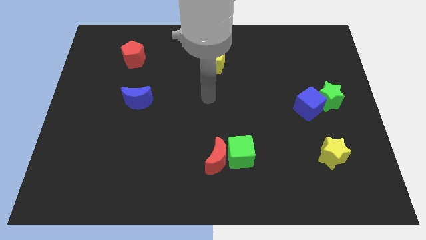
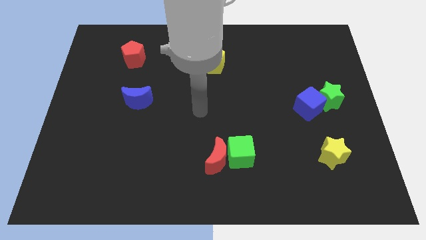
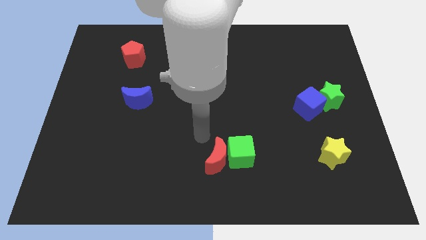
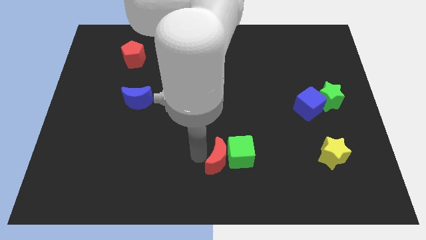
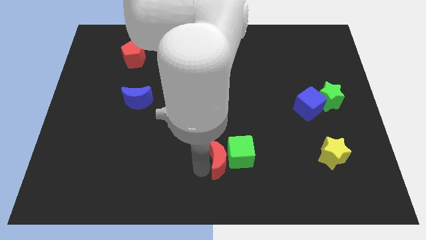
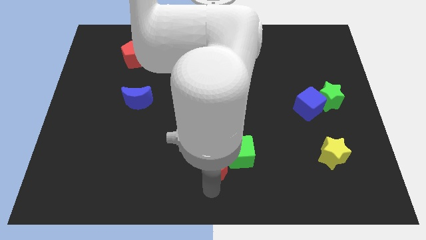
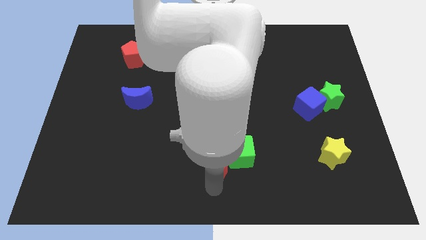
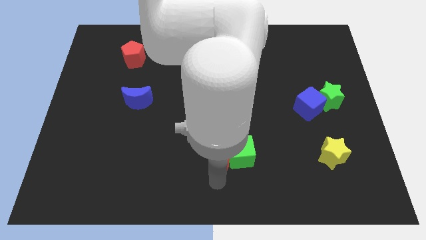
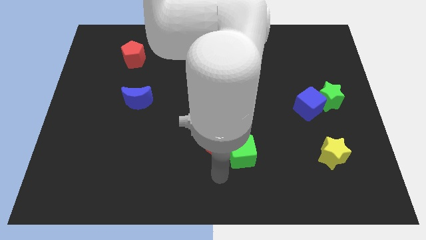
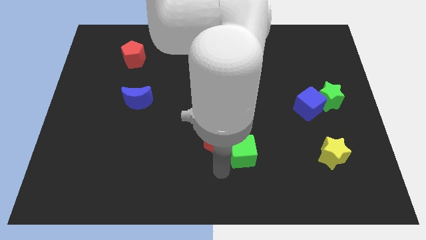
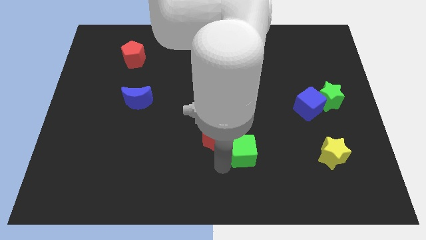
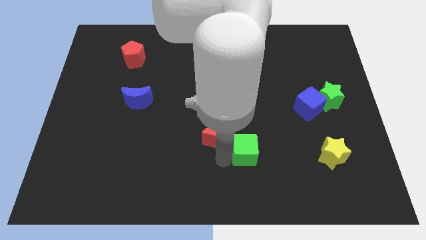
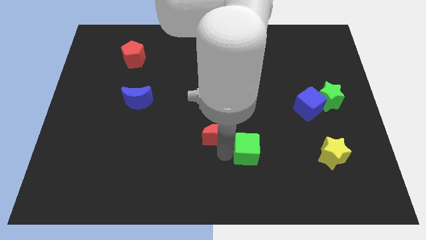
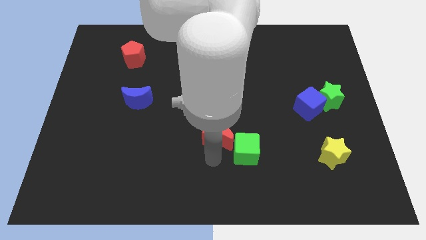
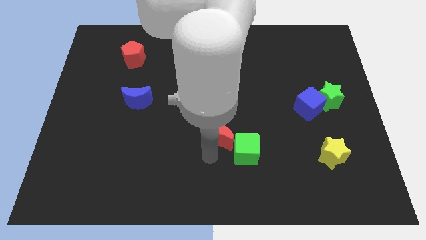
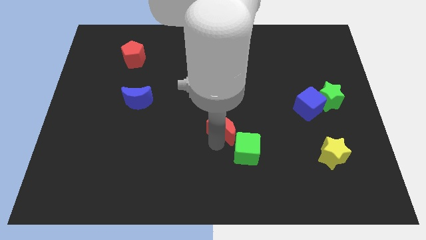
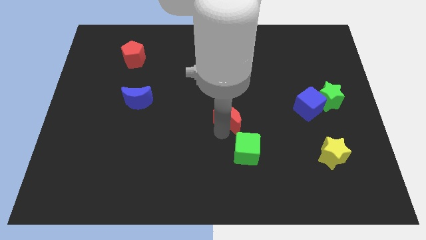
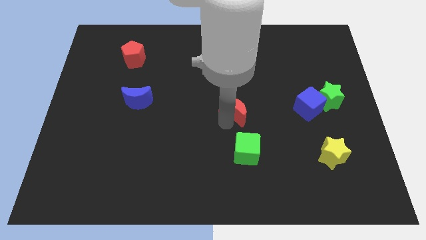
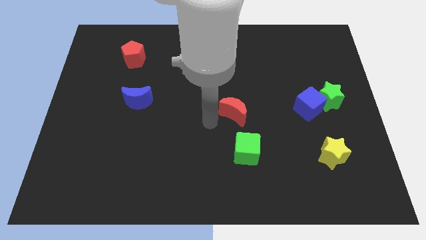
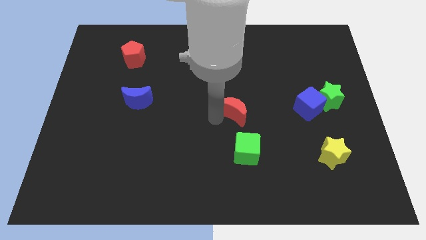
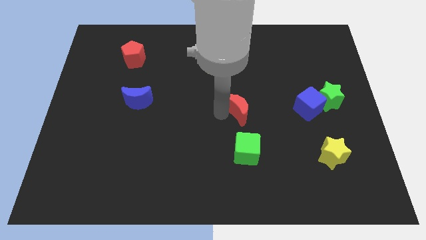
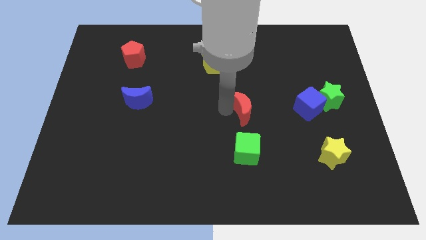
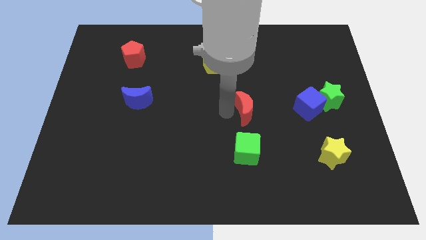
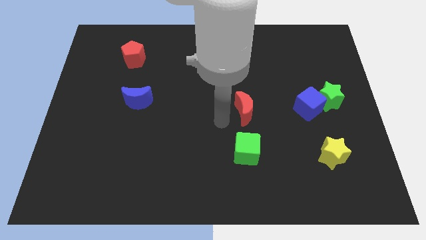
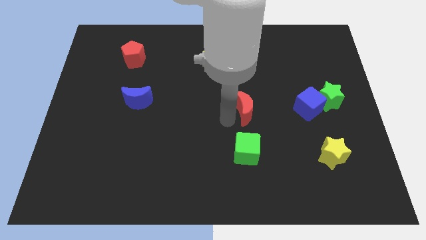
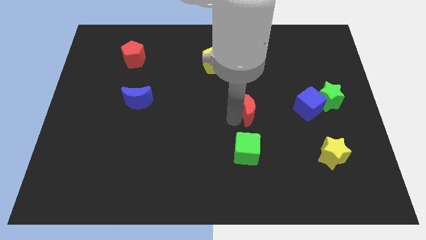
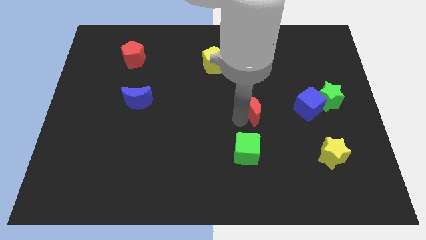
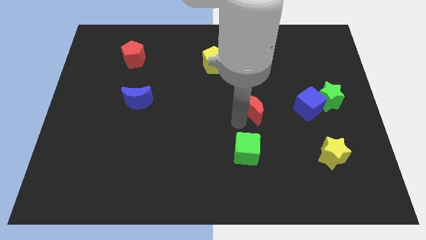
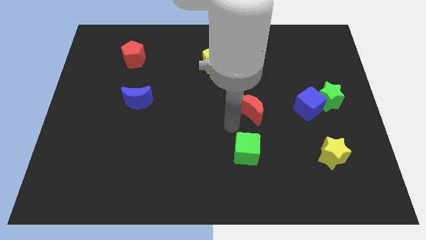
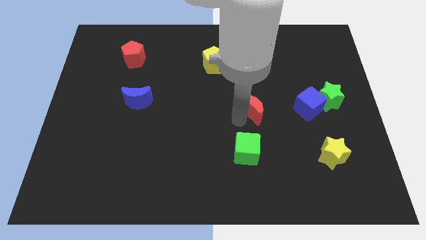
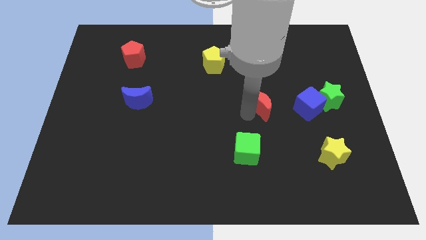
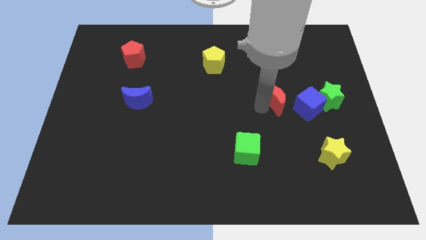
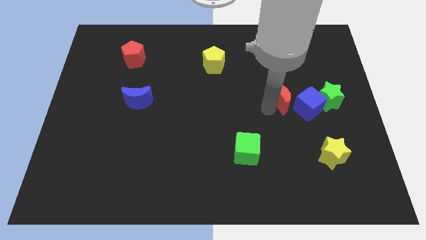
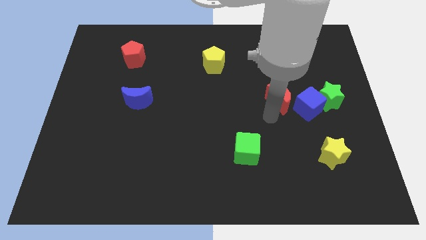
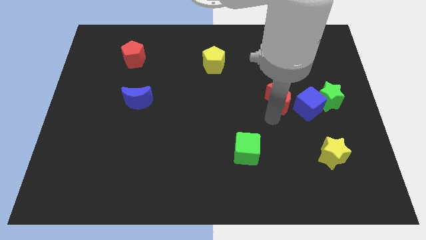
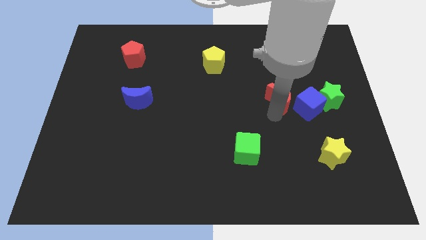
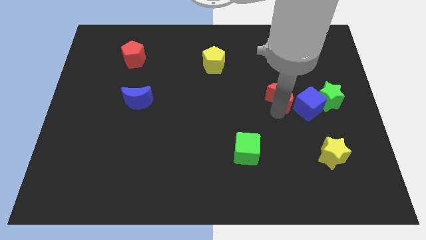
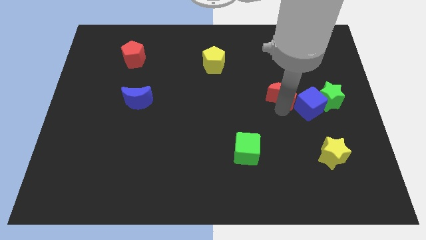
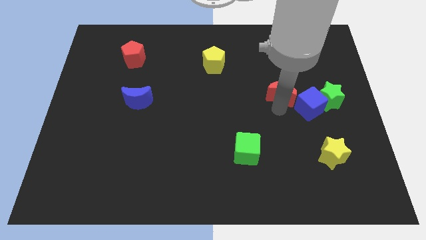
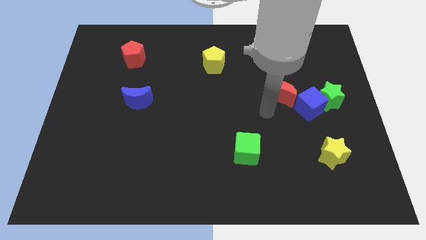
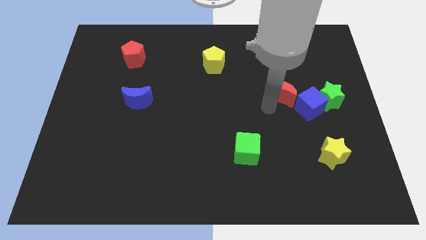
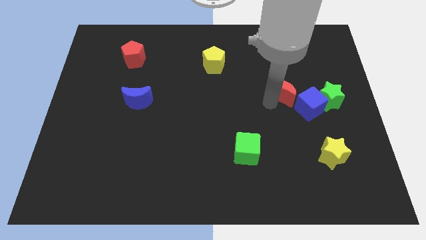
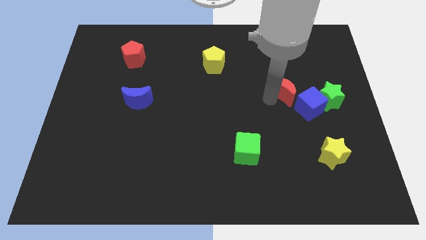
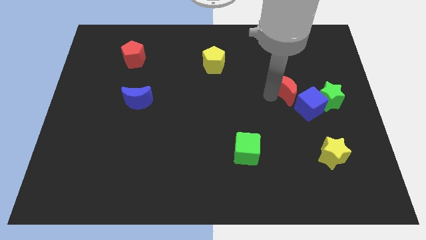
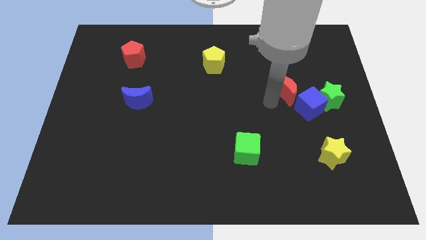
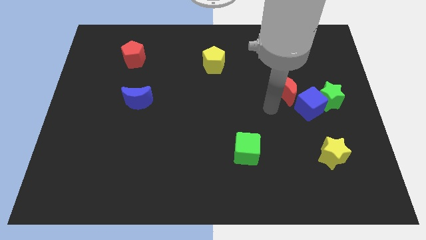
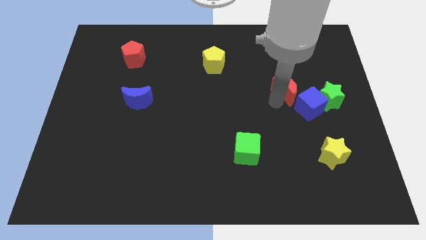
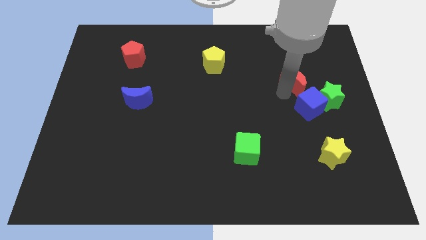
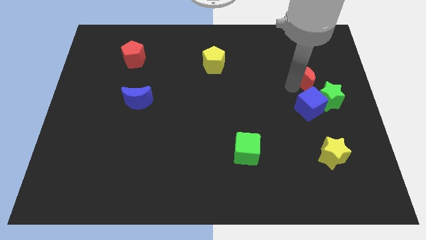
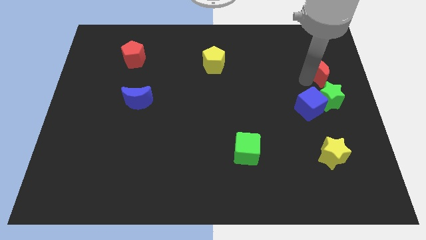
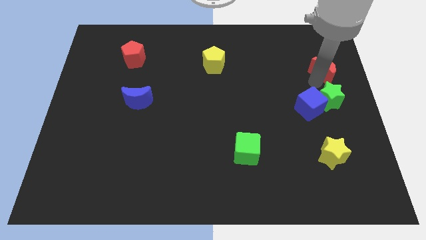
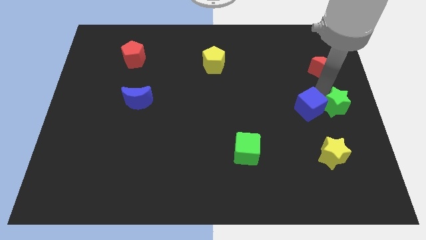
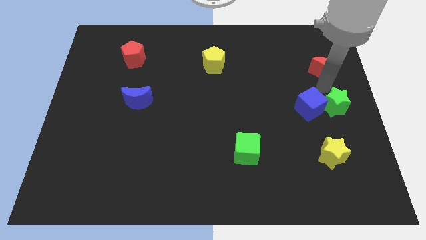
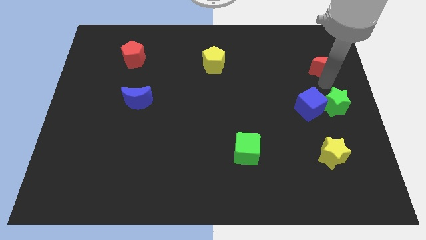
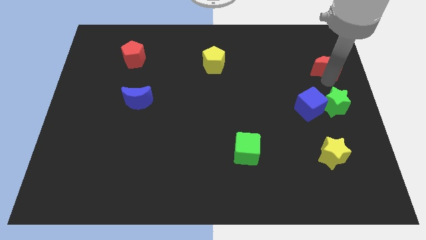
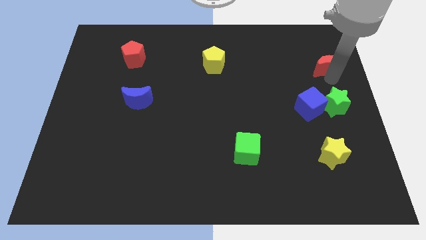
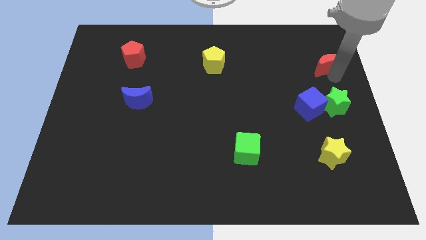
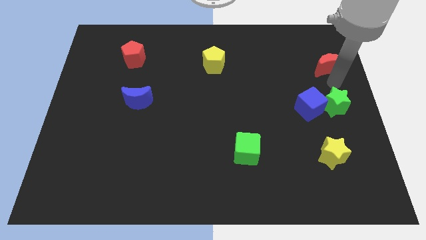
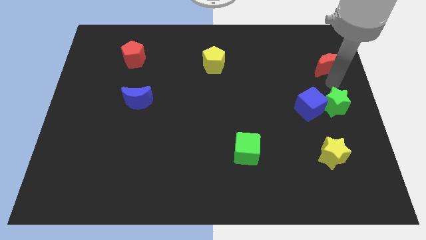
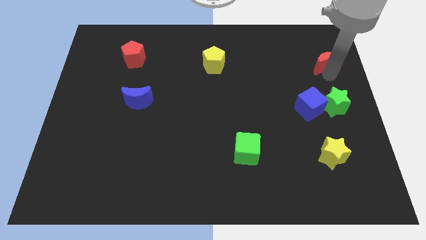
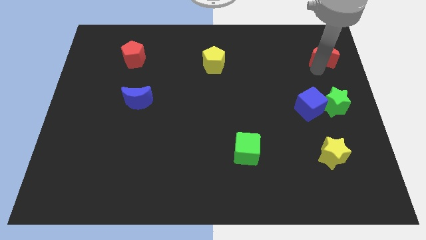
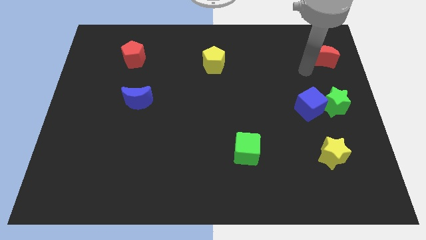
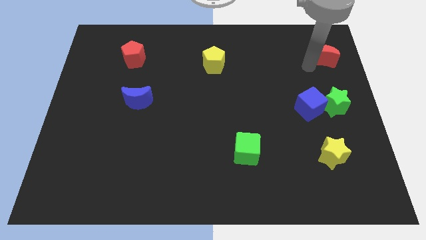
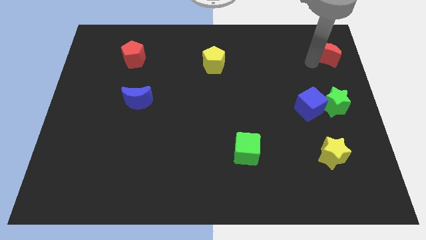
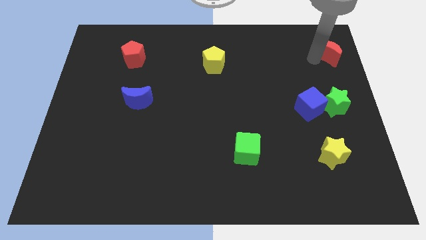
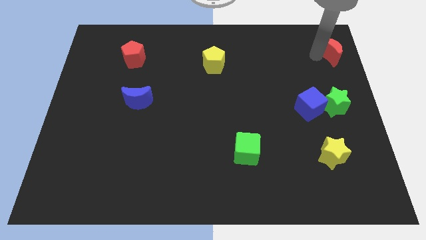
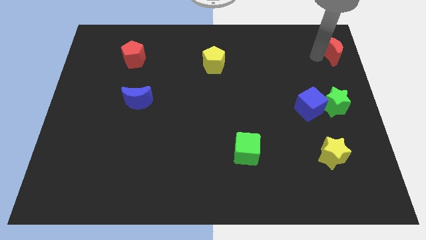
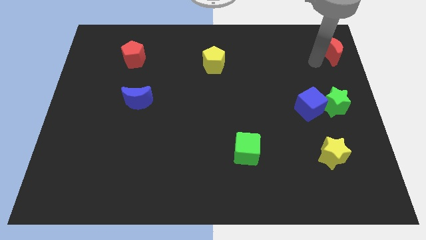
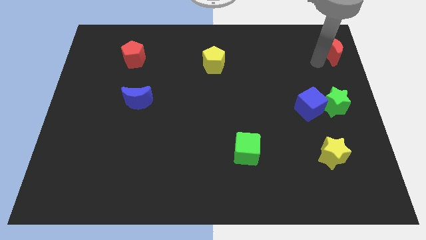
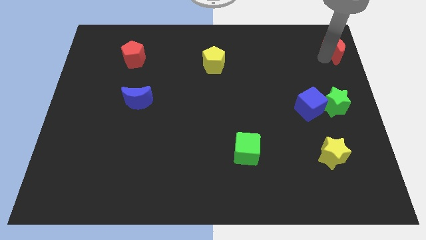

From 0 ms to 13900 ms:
put the red moon to the top right of the board
